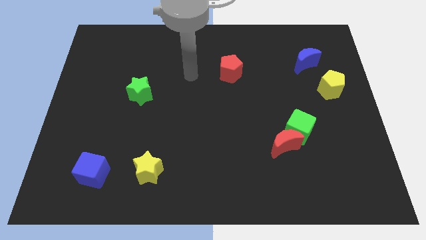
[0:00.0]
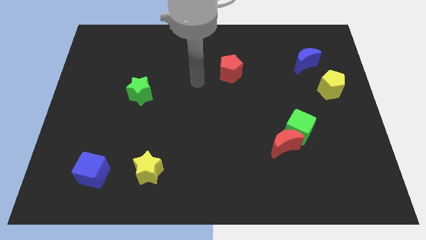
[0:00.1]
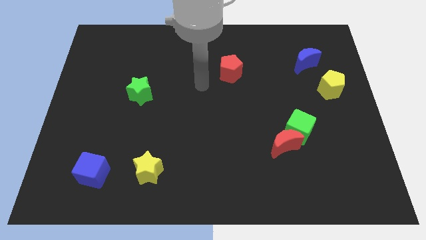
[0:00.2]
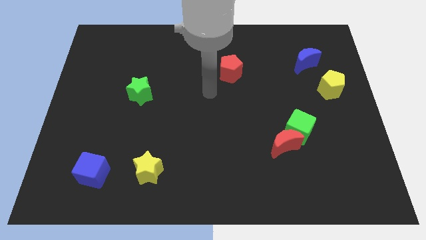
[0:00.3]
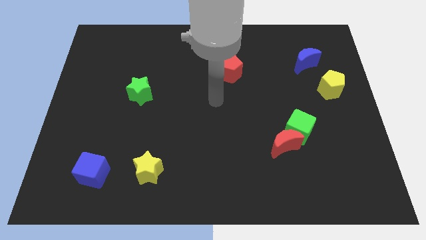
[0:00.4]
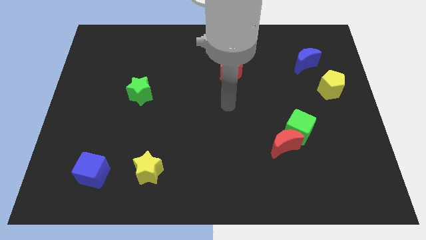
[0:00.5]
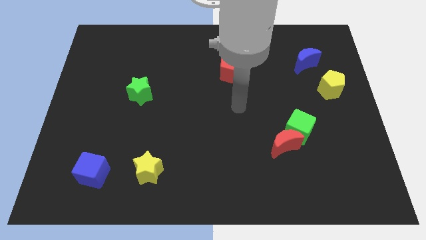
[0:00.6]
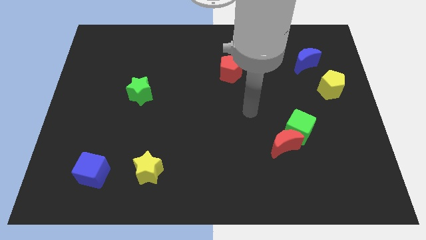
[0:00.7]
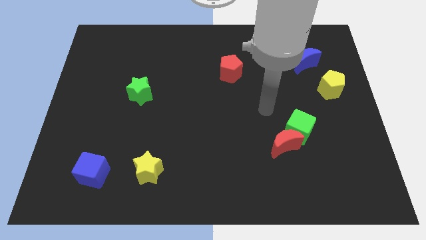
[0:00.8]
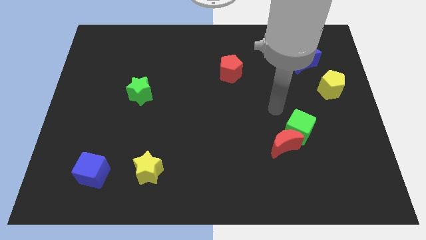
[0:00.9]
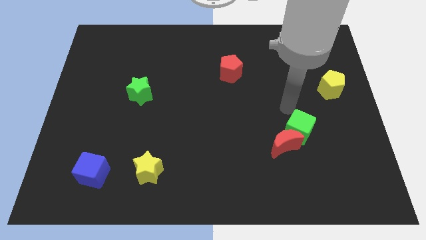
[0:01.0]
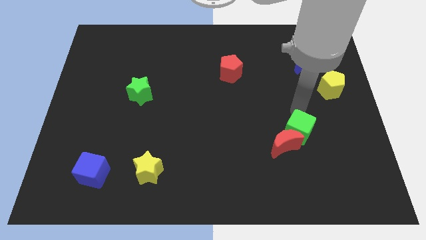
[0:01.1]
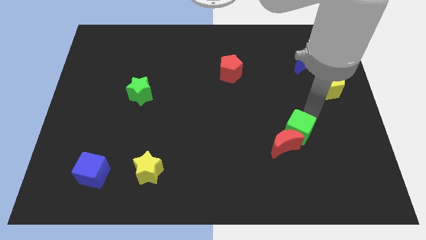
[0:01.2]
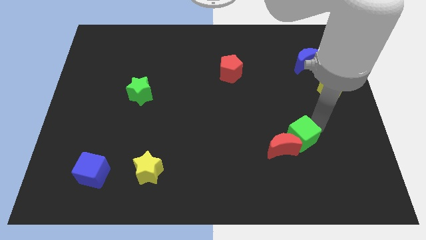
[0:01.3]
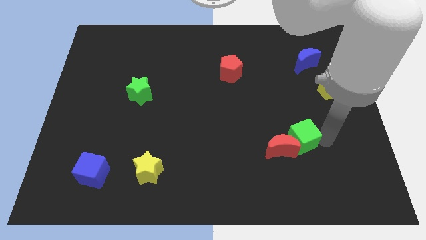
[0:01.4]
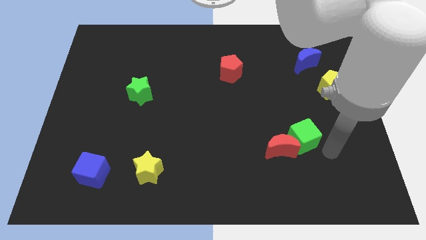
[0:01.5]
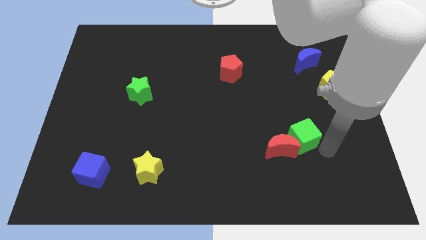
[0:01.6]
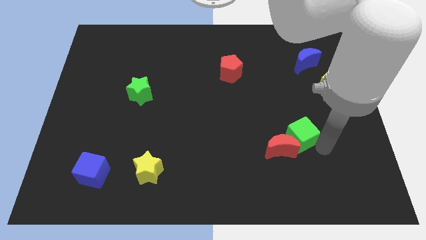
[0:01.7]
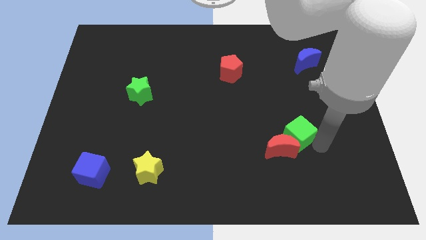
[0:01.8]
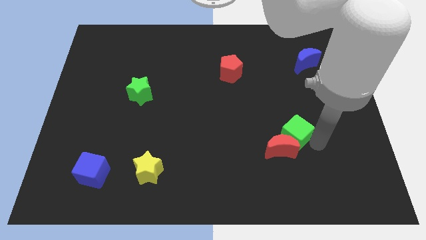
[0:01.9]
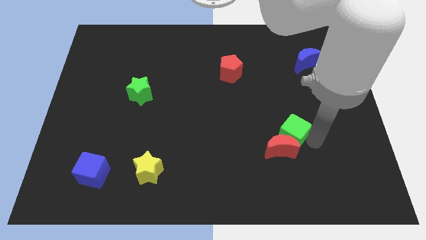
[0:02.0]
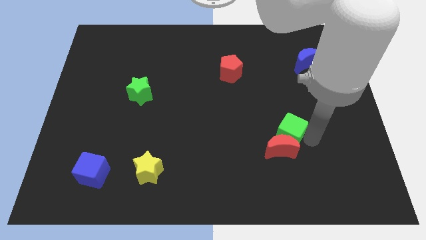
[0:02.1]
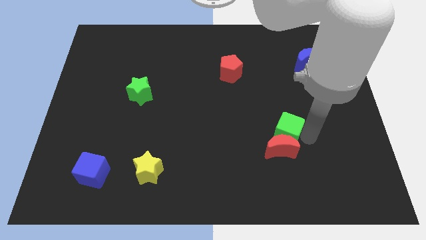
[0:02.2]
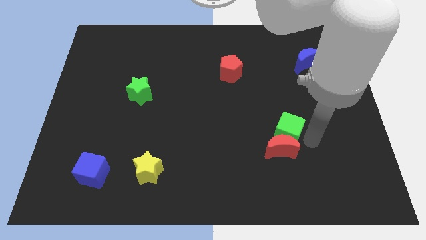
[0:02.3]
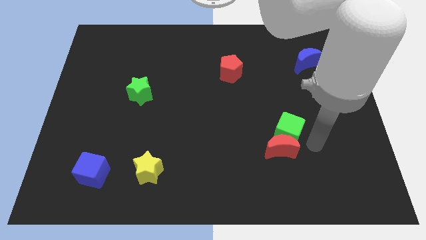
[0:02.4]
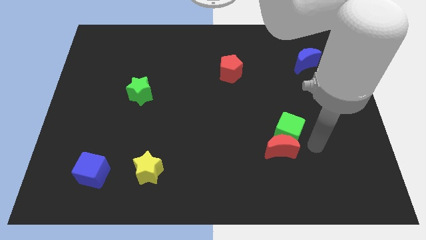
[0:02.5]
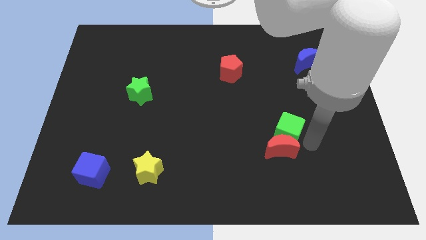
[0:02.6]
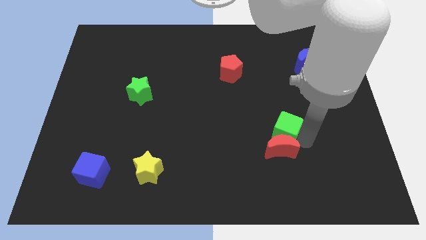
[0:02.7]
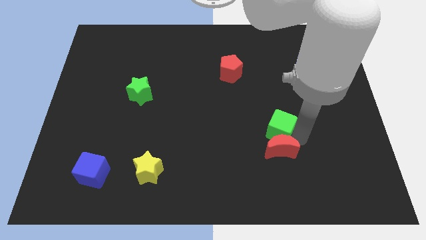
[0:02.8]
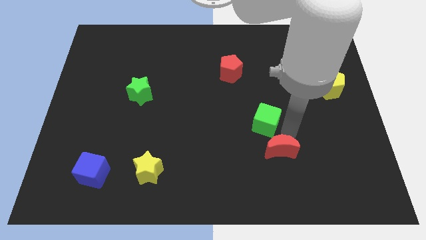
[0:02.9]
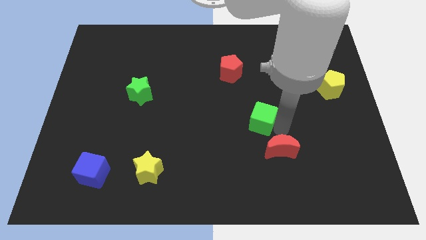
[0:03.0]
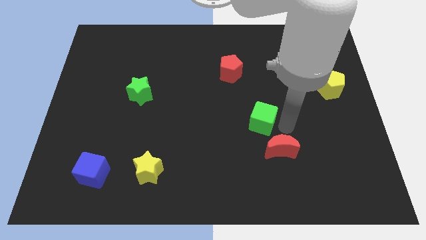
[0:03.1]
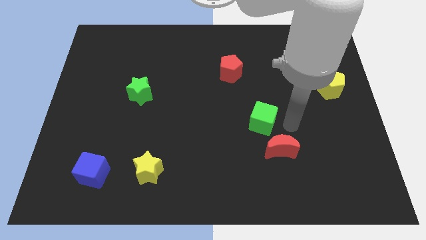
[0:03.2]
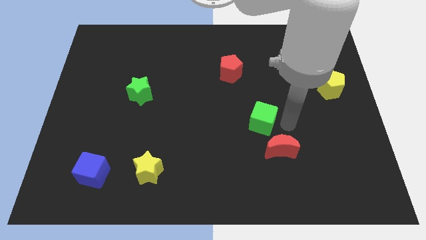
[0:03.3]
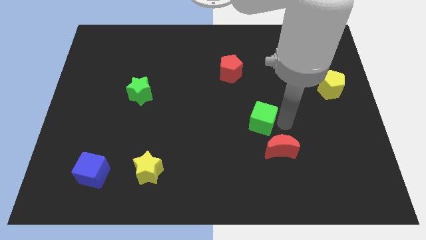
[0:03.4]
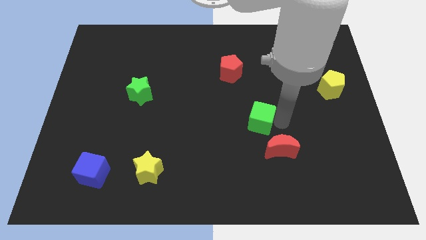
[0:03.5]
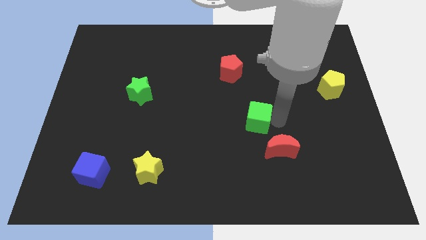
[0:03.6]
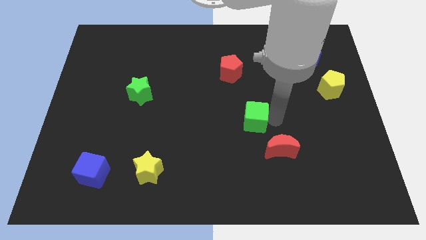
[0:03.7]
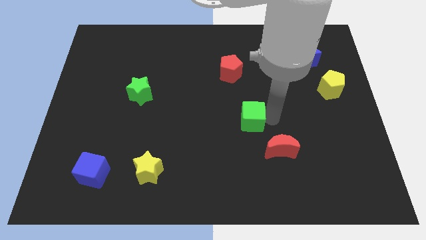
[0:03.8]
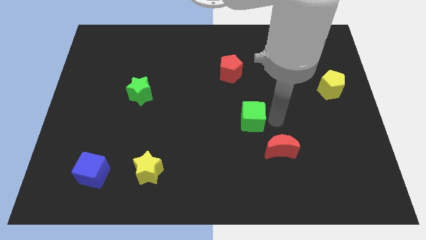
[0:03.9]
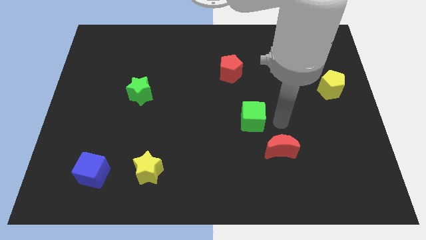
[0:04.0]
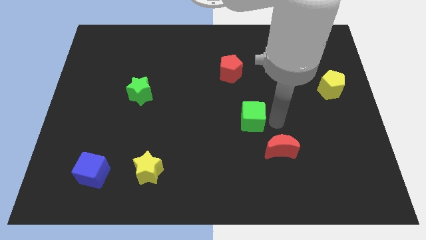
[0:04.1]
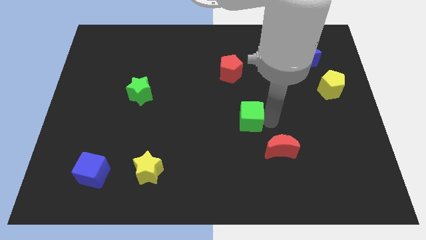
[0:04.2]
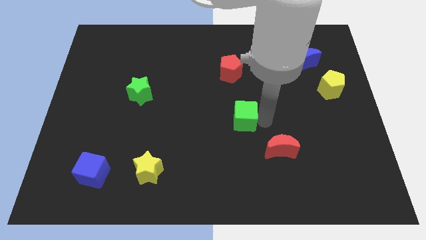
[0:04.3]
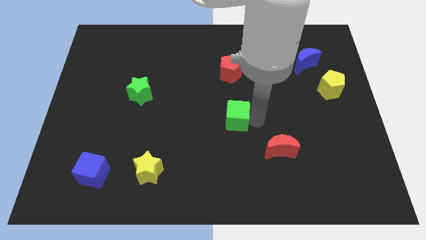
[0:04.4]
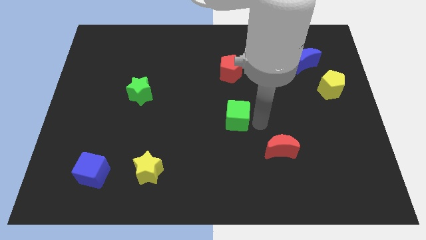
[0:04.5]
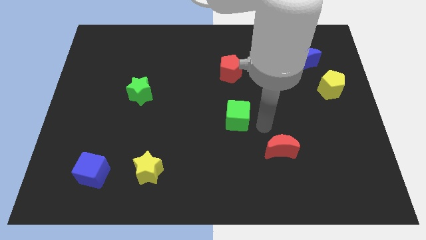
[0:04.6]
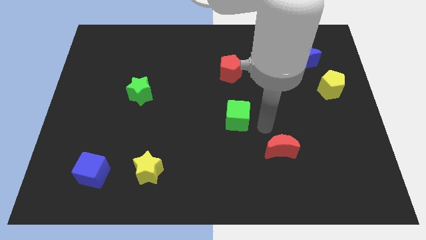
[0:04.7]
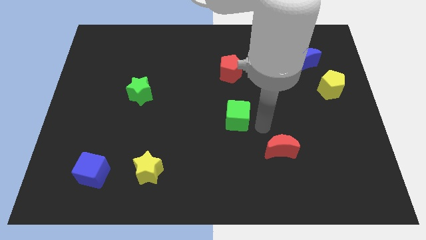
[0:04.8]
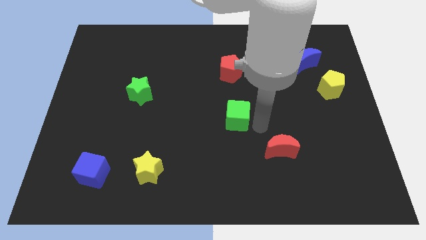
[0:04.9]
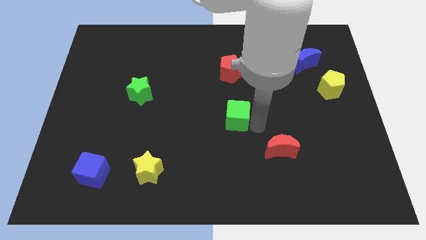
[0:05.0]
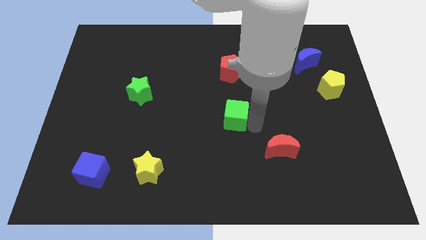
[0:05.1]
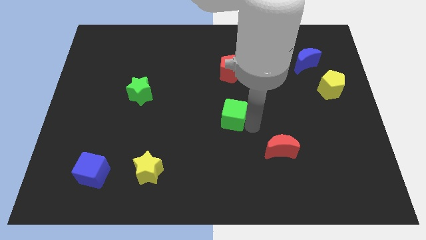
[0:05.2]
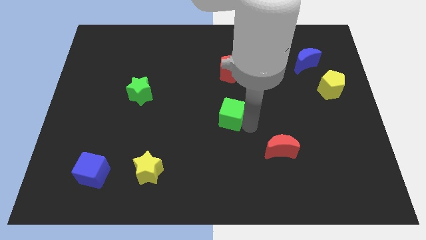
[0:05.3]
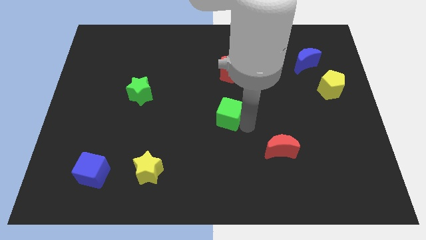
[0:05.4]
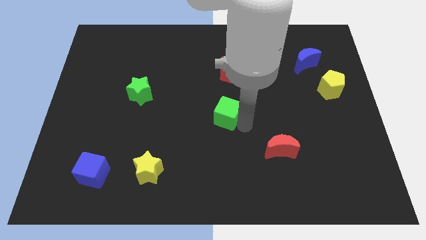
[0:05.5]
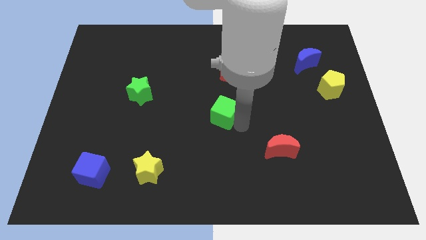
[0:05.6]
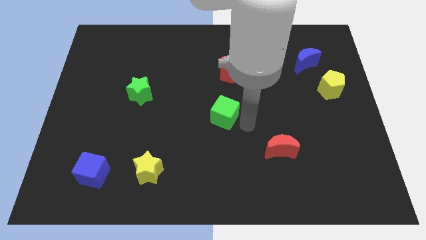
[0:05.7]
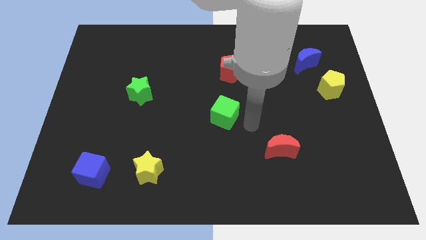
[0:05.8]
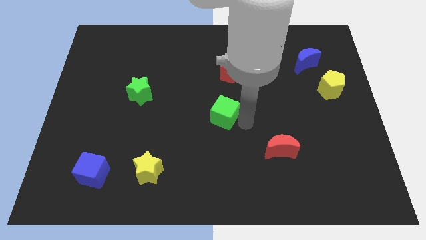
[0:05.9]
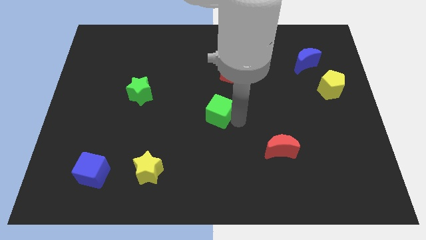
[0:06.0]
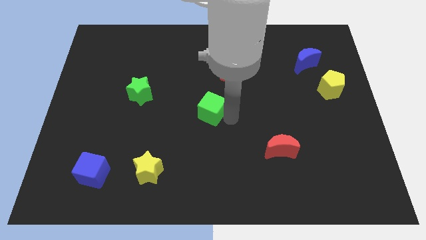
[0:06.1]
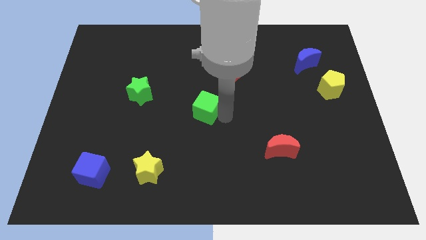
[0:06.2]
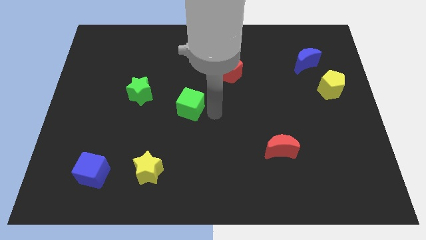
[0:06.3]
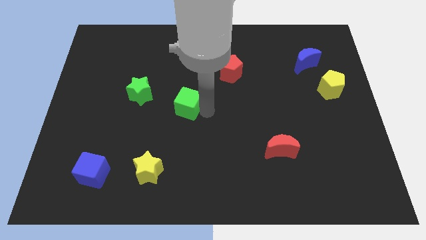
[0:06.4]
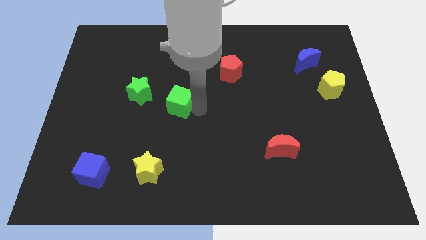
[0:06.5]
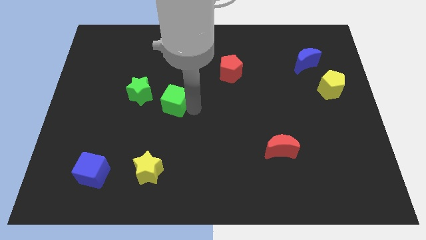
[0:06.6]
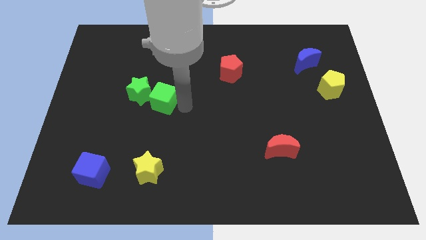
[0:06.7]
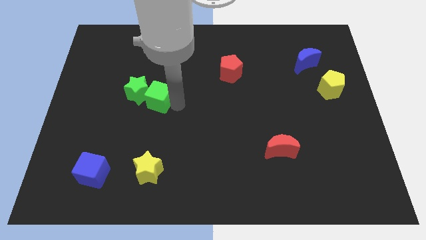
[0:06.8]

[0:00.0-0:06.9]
put the green cube to the green star

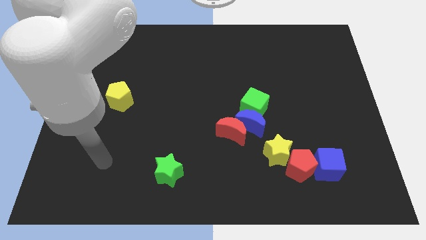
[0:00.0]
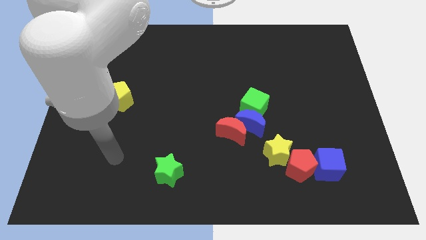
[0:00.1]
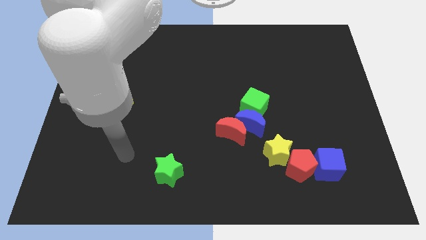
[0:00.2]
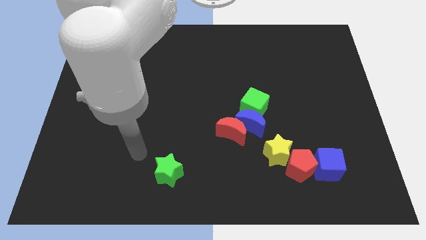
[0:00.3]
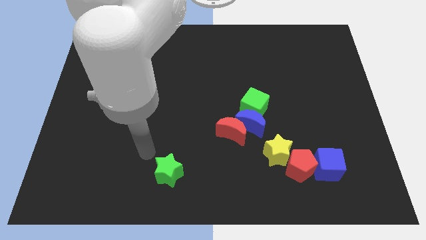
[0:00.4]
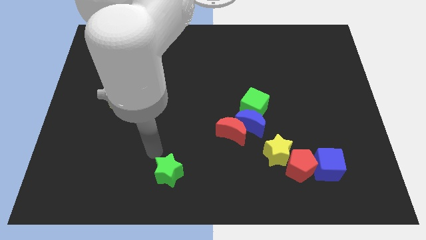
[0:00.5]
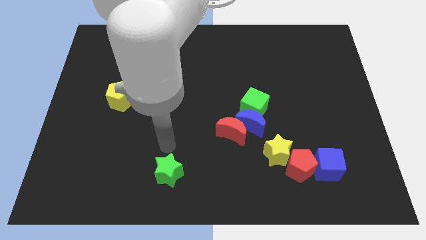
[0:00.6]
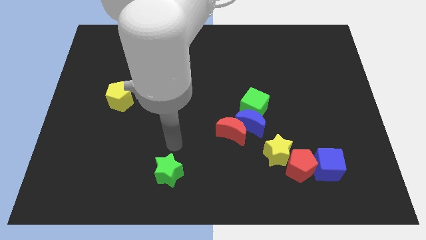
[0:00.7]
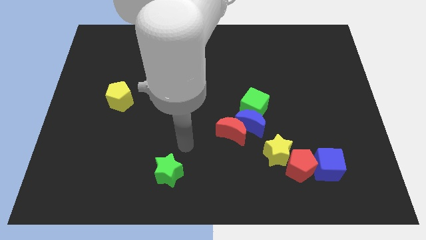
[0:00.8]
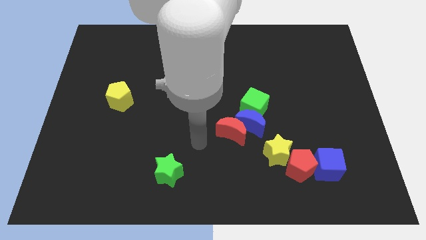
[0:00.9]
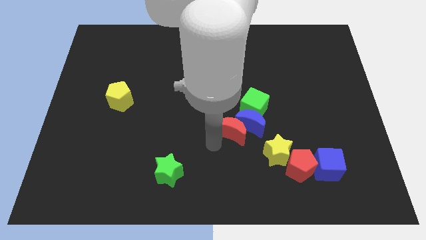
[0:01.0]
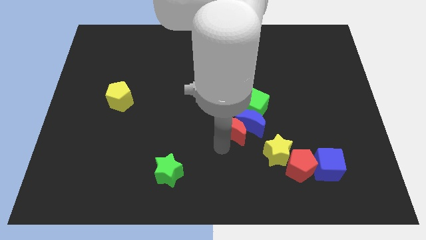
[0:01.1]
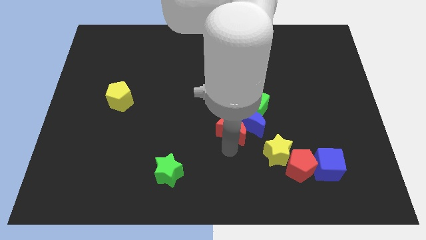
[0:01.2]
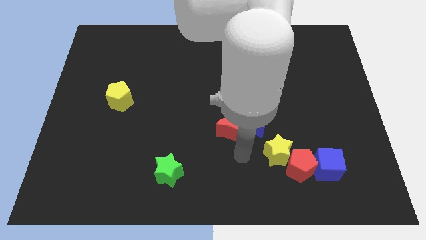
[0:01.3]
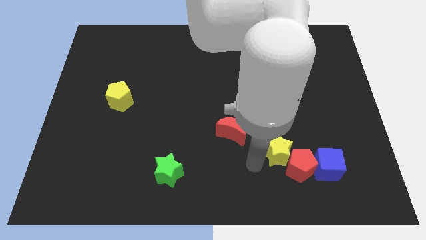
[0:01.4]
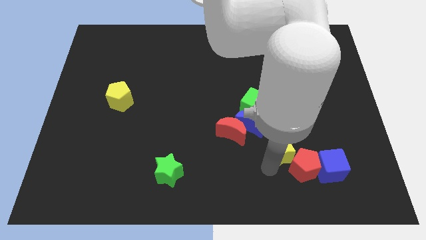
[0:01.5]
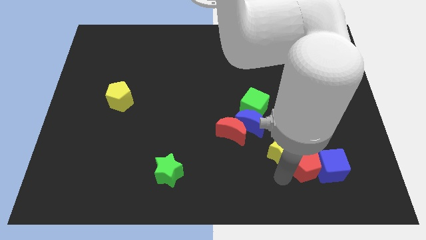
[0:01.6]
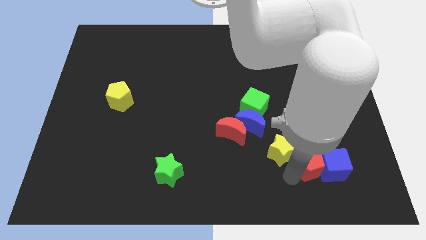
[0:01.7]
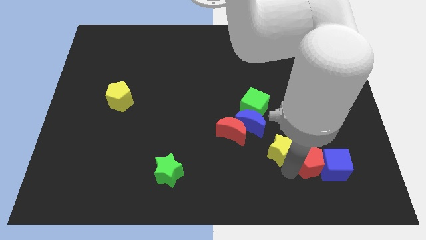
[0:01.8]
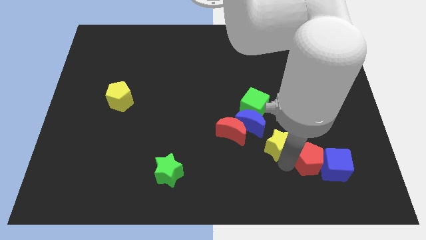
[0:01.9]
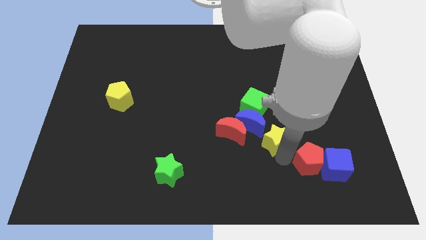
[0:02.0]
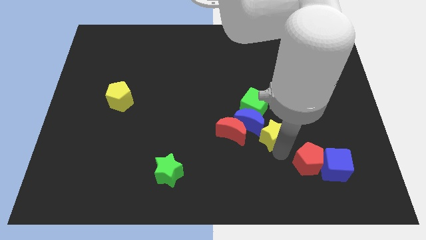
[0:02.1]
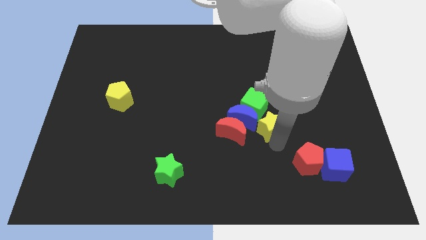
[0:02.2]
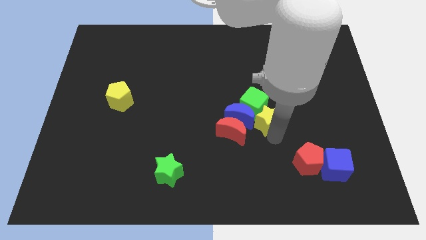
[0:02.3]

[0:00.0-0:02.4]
put the yellow star to the green cube
